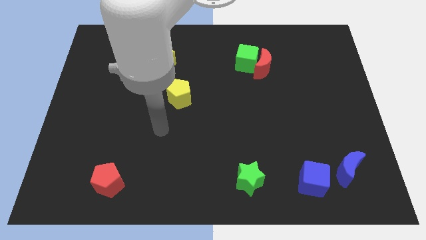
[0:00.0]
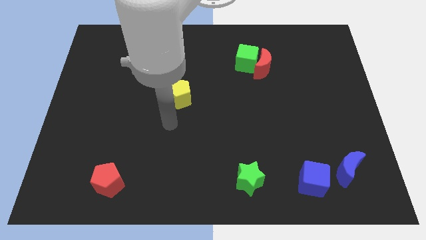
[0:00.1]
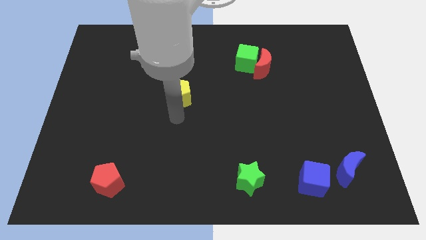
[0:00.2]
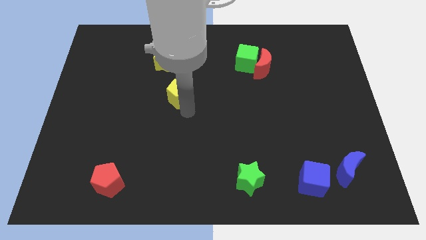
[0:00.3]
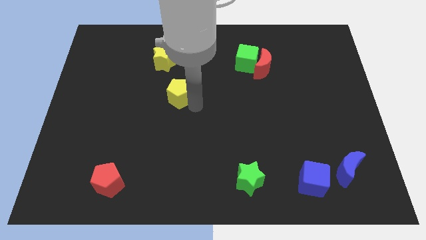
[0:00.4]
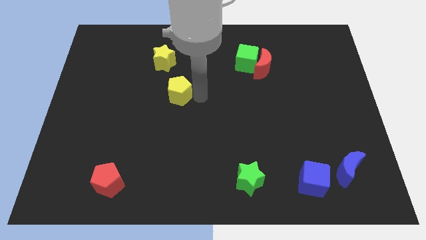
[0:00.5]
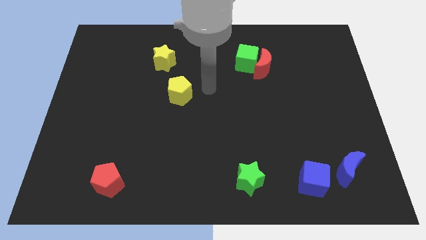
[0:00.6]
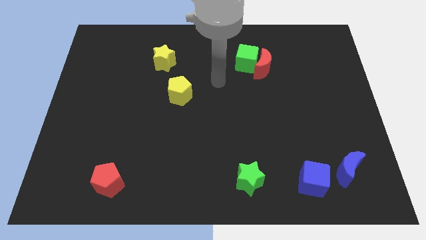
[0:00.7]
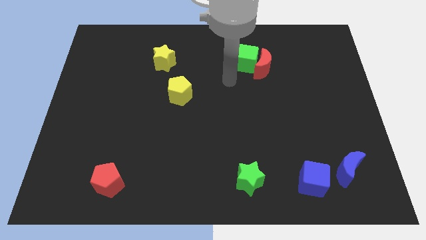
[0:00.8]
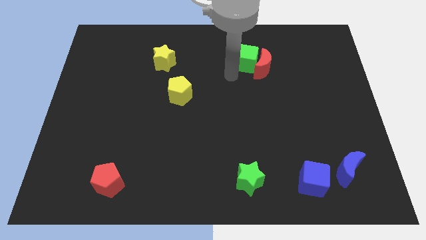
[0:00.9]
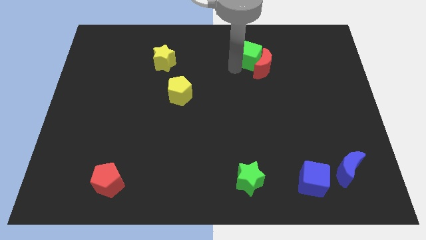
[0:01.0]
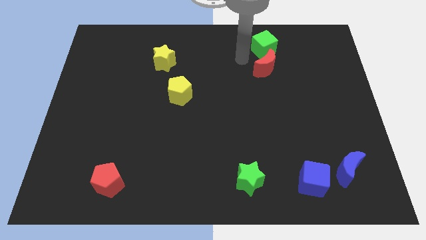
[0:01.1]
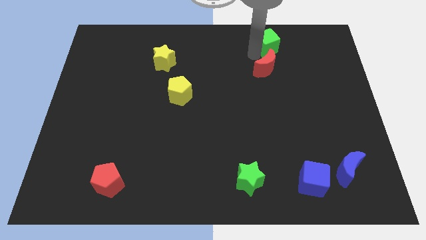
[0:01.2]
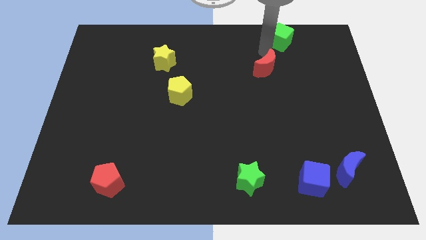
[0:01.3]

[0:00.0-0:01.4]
separate the red moon from the green cube

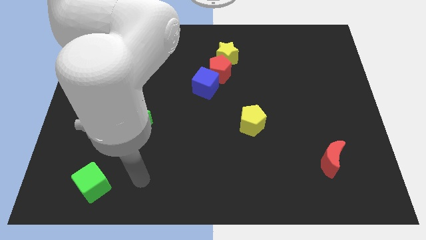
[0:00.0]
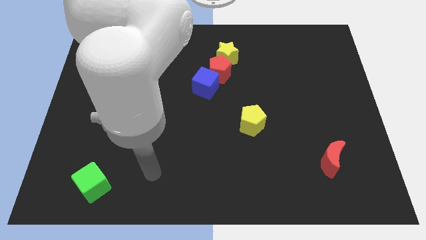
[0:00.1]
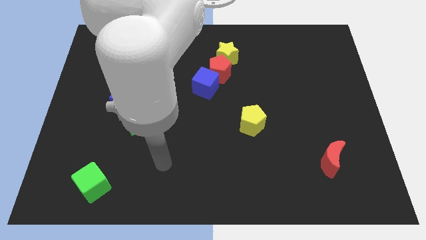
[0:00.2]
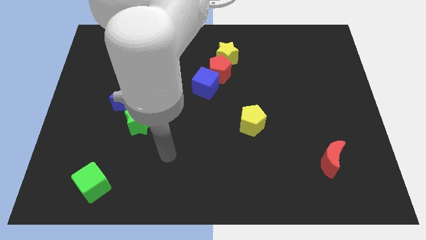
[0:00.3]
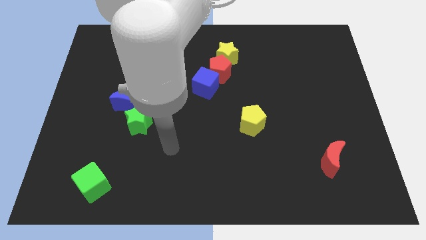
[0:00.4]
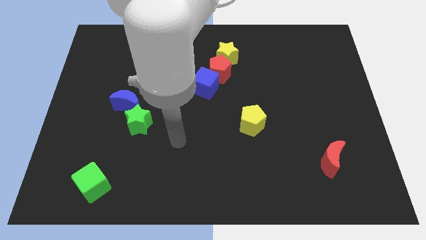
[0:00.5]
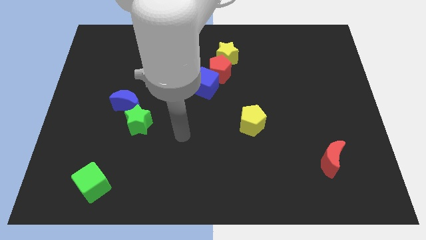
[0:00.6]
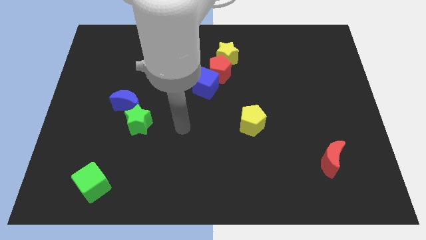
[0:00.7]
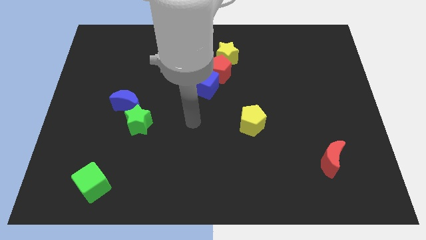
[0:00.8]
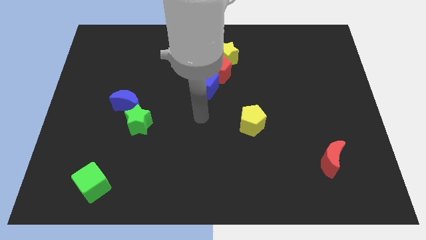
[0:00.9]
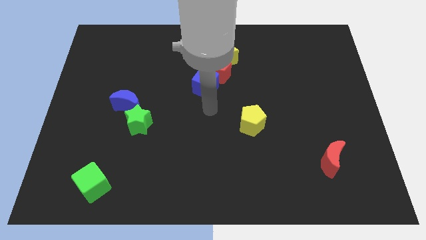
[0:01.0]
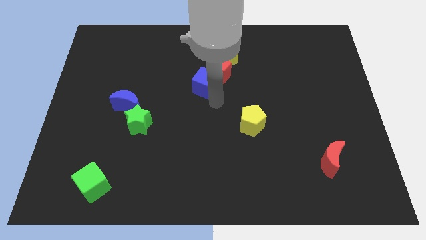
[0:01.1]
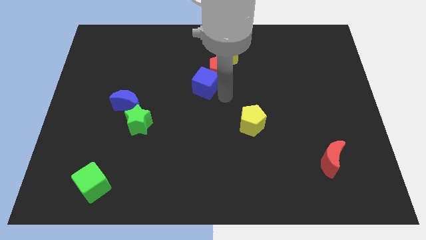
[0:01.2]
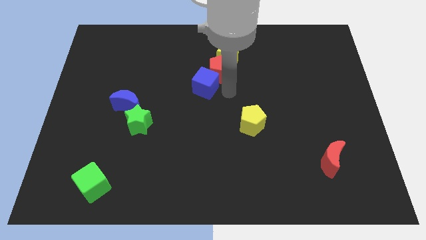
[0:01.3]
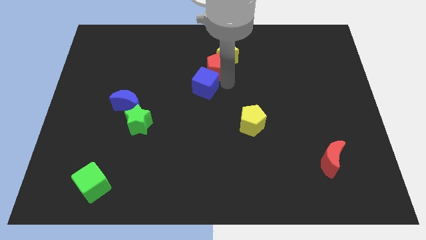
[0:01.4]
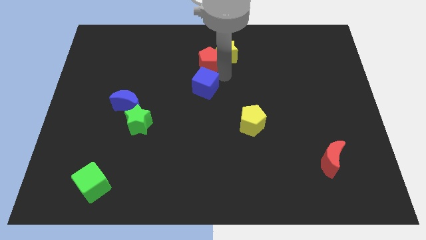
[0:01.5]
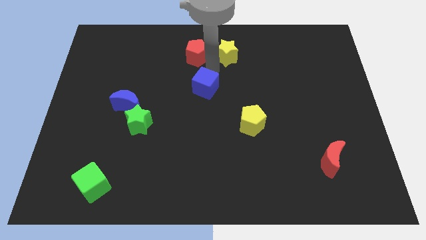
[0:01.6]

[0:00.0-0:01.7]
separate the blue cube from the red pentagon

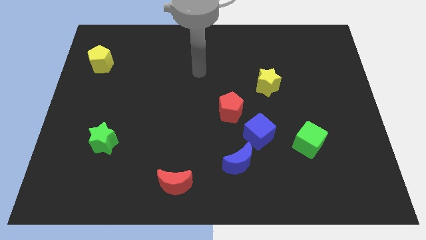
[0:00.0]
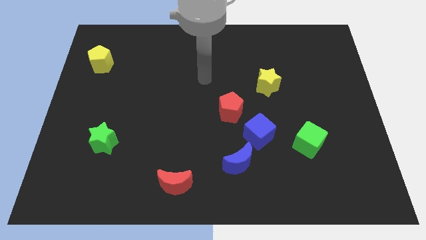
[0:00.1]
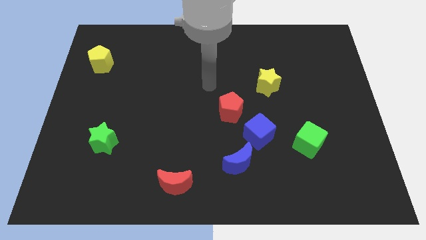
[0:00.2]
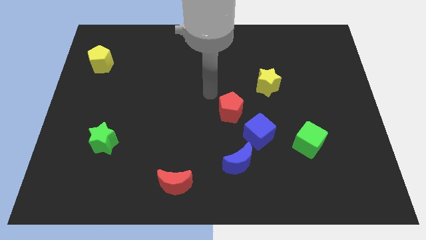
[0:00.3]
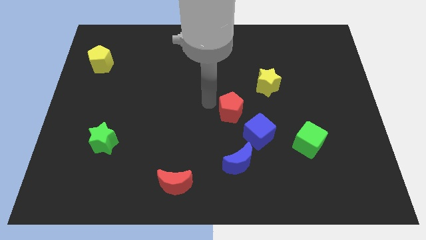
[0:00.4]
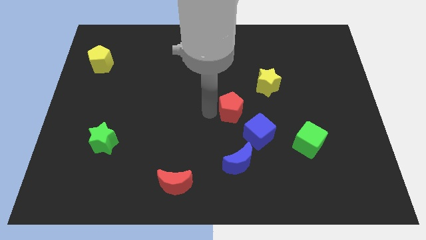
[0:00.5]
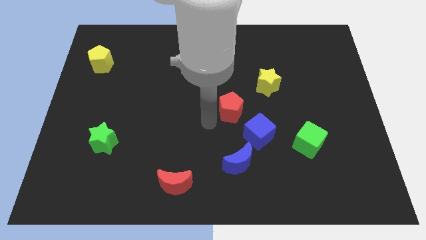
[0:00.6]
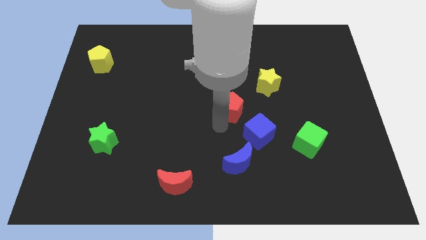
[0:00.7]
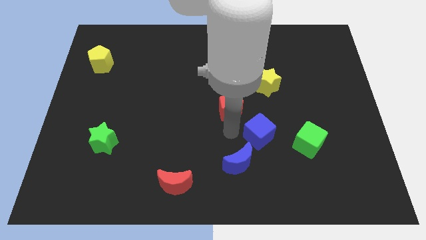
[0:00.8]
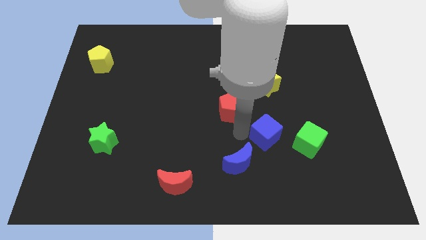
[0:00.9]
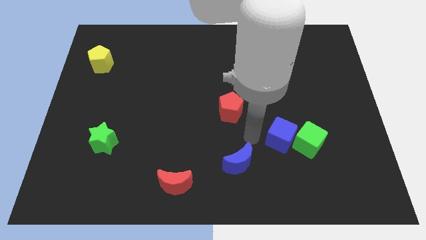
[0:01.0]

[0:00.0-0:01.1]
separate the blue moon from the blue cube

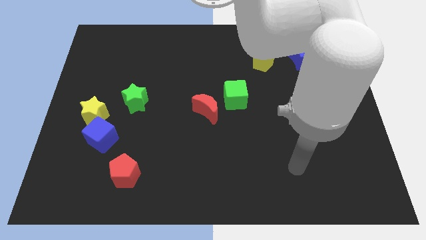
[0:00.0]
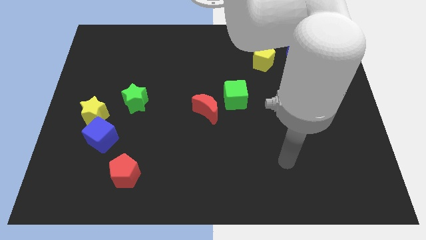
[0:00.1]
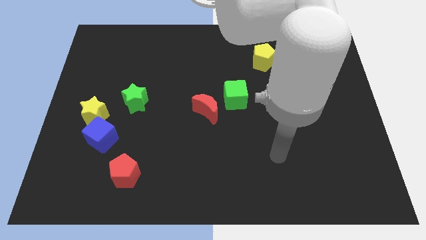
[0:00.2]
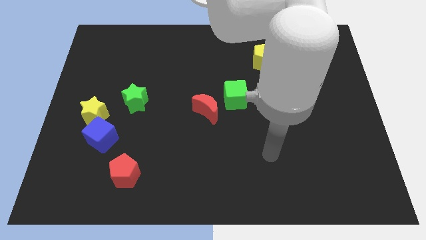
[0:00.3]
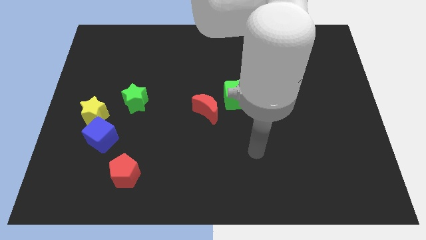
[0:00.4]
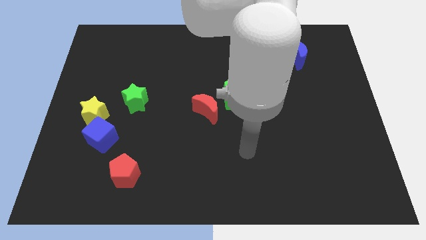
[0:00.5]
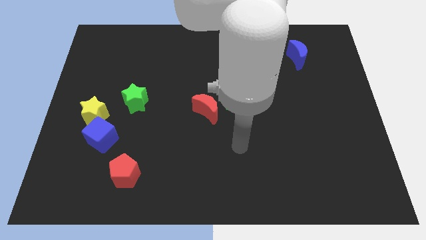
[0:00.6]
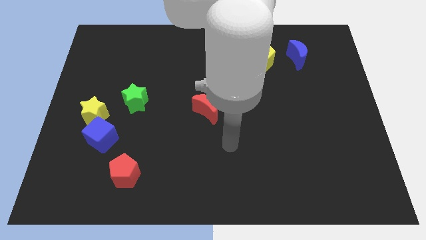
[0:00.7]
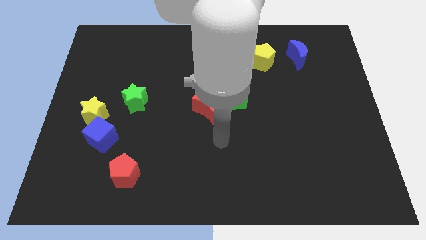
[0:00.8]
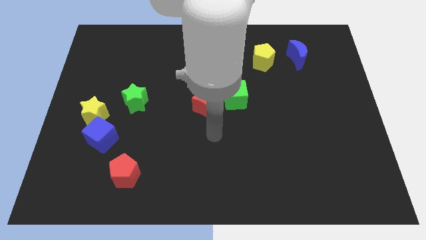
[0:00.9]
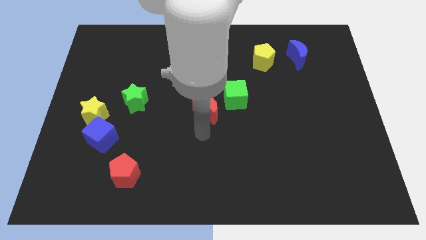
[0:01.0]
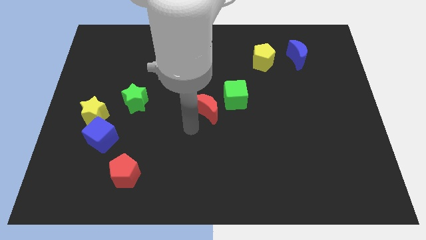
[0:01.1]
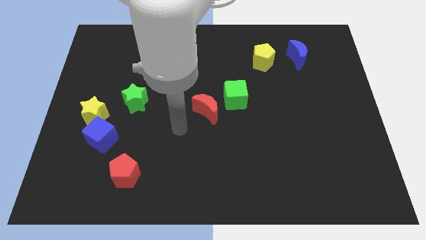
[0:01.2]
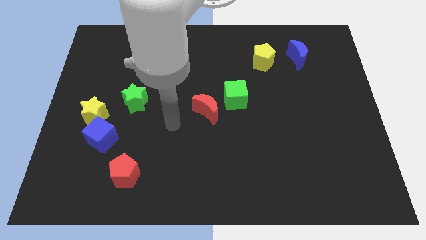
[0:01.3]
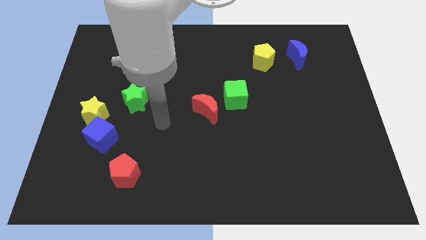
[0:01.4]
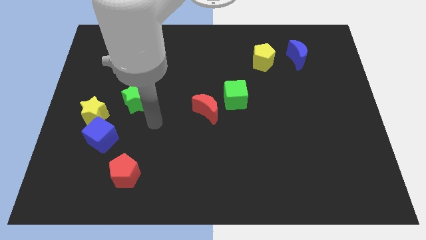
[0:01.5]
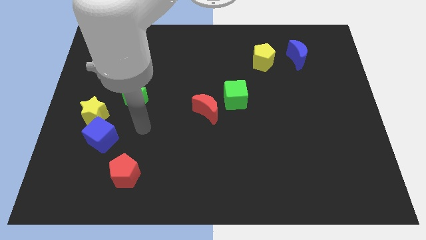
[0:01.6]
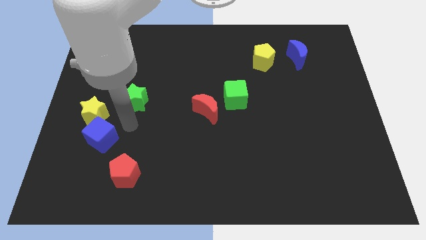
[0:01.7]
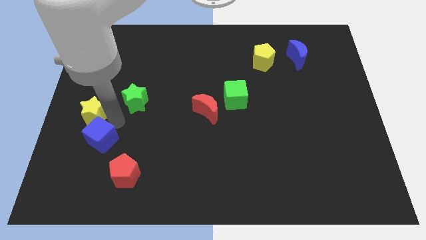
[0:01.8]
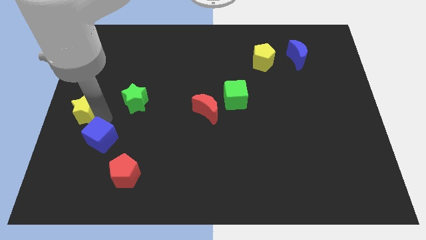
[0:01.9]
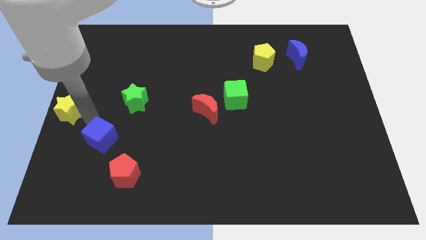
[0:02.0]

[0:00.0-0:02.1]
move the blue cube away from the yellow star

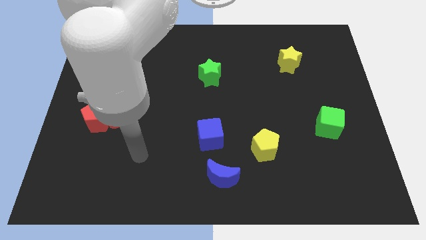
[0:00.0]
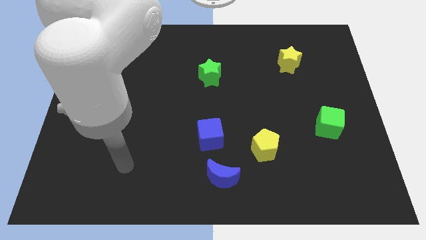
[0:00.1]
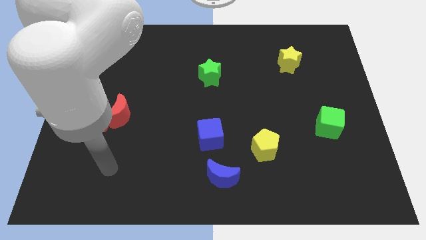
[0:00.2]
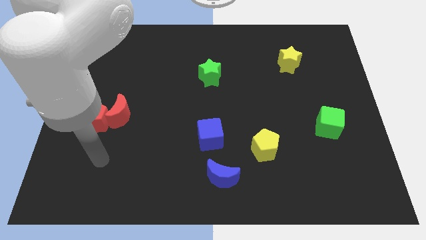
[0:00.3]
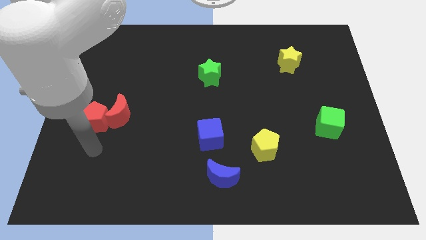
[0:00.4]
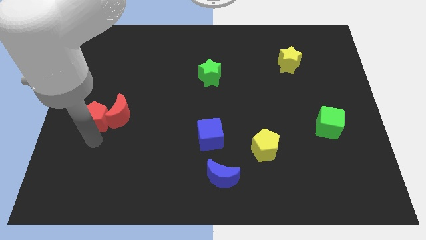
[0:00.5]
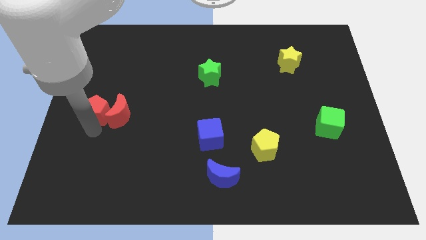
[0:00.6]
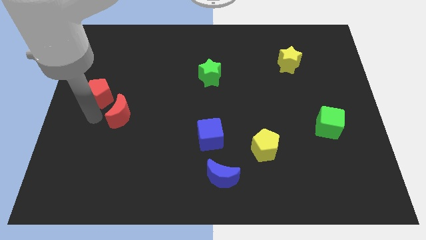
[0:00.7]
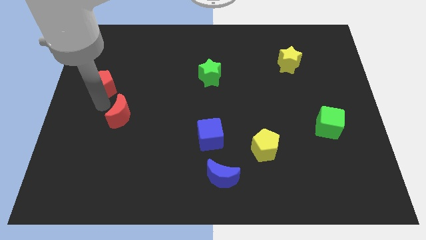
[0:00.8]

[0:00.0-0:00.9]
separate the red moon from the red pentagon

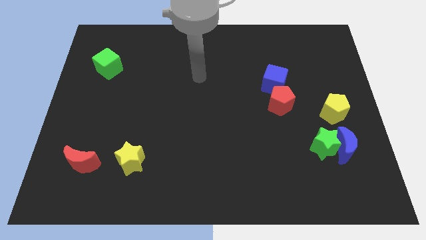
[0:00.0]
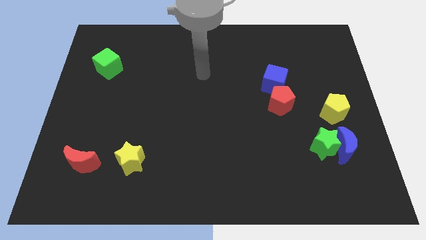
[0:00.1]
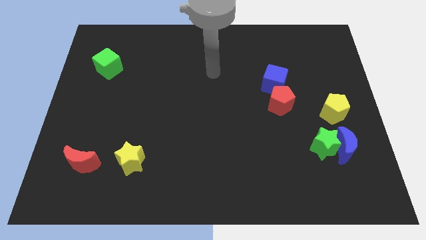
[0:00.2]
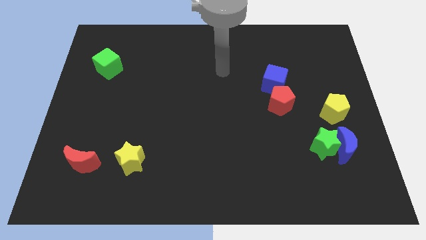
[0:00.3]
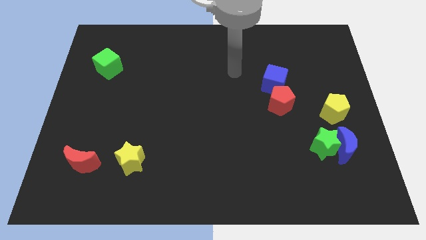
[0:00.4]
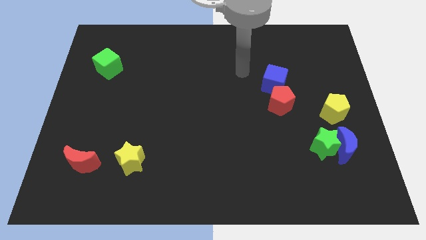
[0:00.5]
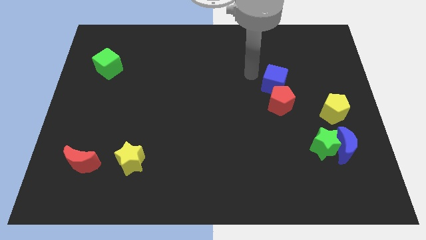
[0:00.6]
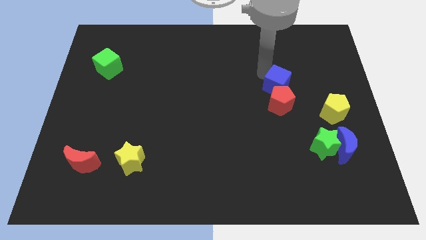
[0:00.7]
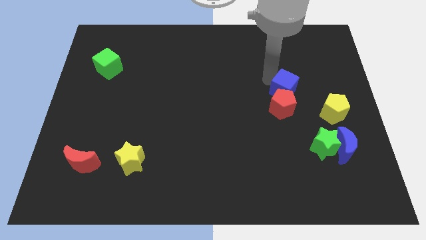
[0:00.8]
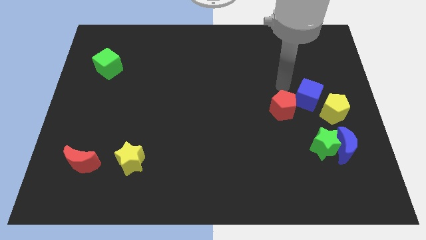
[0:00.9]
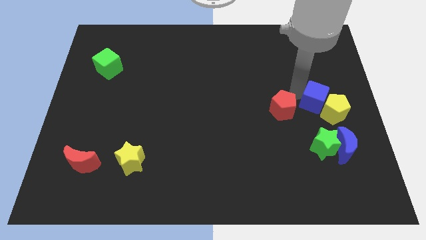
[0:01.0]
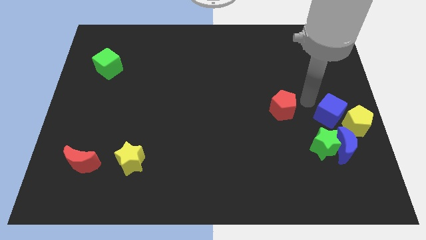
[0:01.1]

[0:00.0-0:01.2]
separate the red pentagon from the blue cube

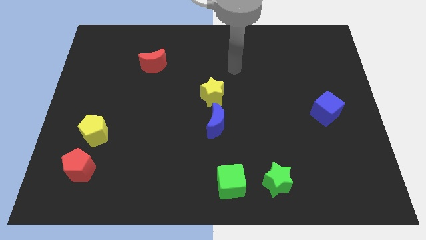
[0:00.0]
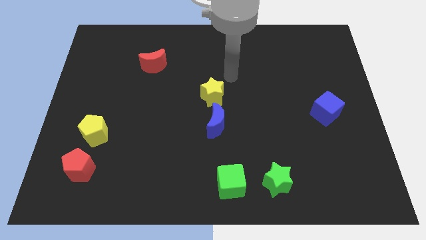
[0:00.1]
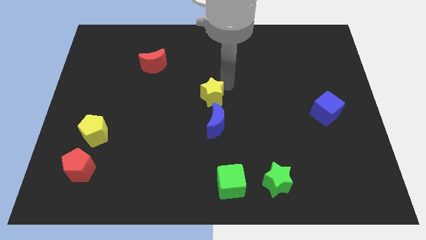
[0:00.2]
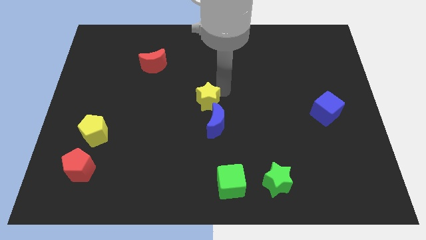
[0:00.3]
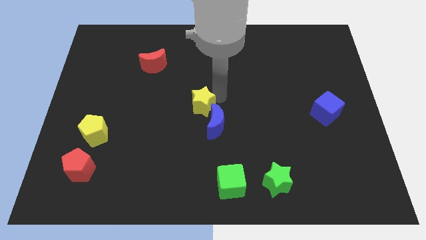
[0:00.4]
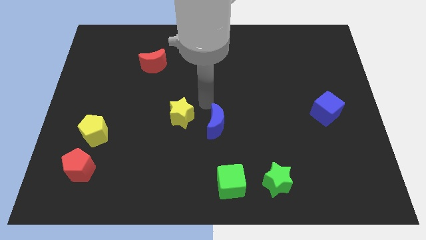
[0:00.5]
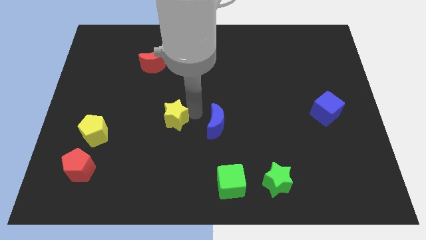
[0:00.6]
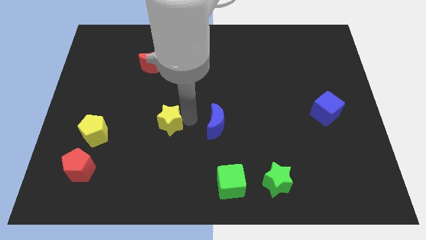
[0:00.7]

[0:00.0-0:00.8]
move the blue moon away from the yellow star

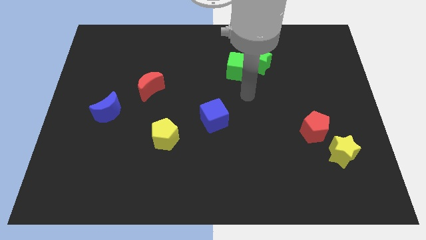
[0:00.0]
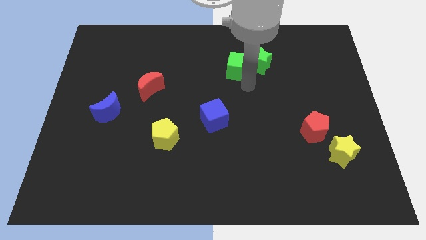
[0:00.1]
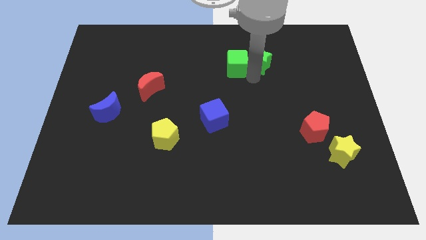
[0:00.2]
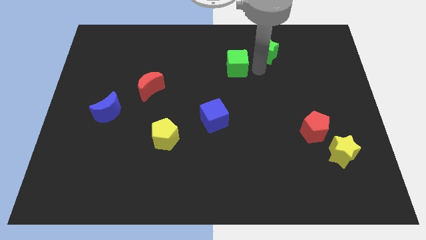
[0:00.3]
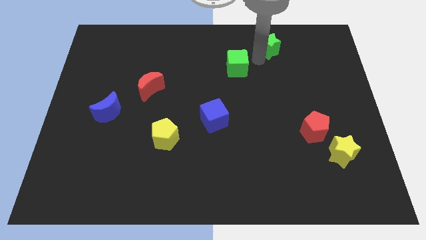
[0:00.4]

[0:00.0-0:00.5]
pull the green cube apart from the green star
